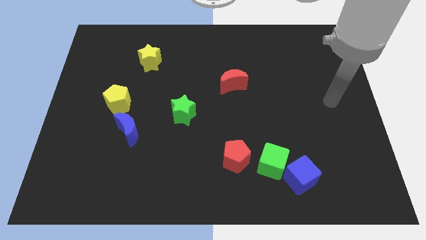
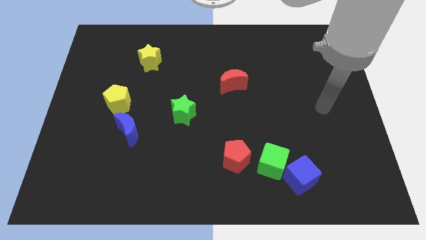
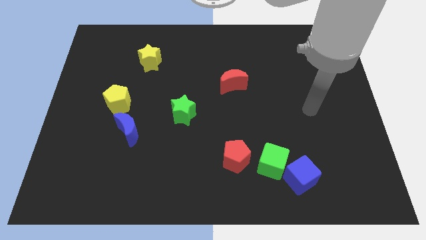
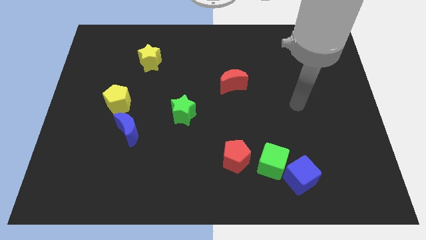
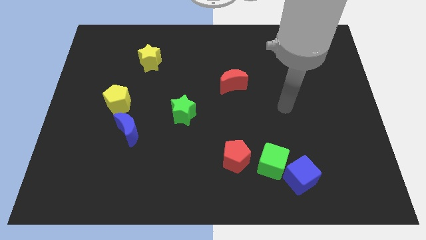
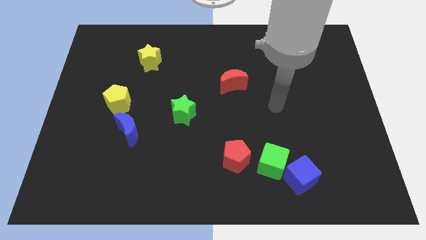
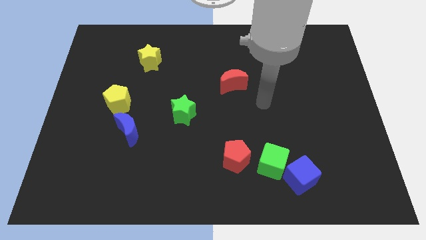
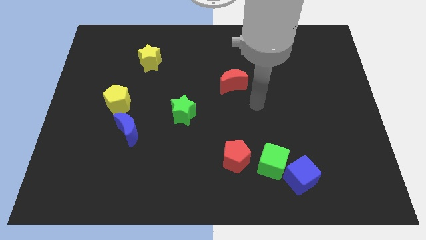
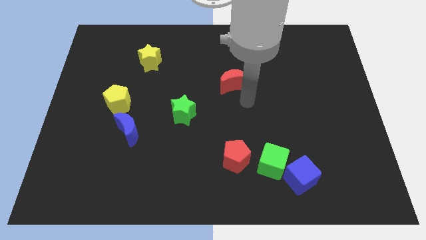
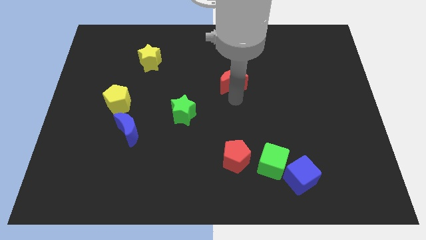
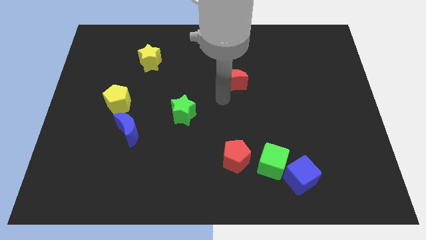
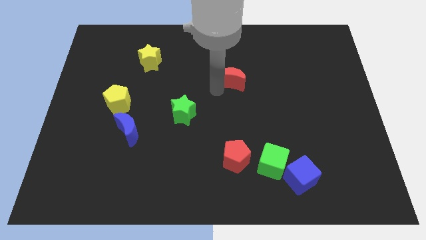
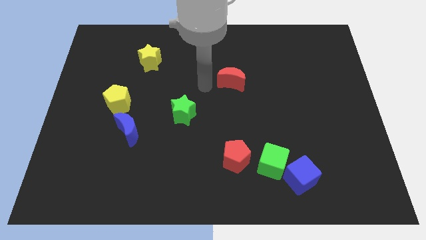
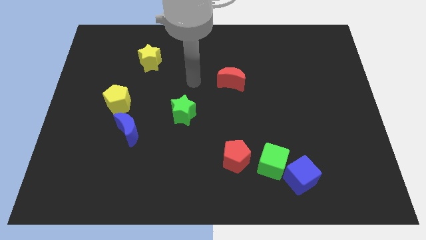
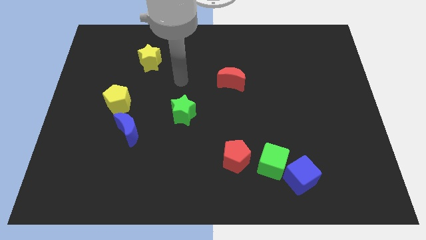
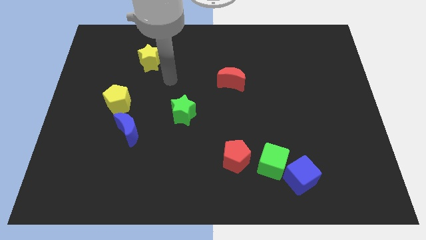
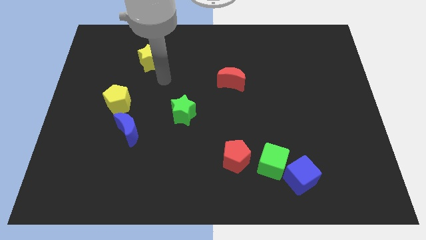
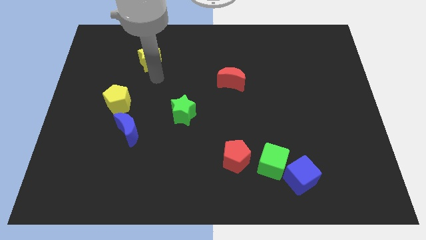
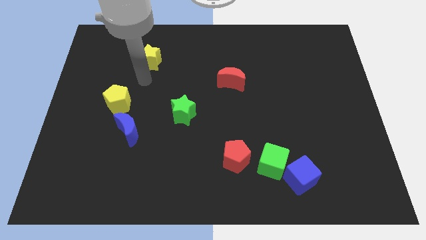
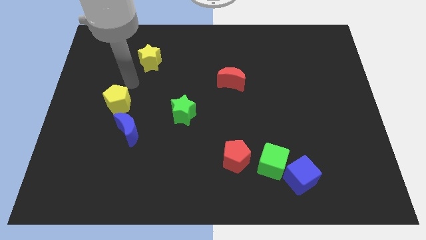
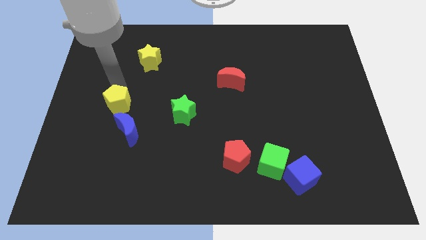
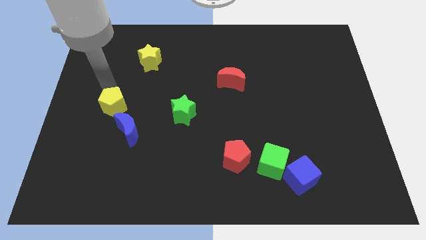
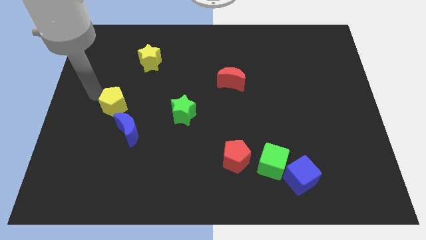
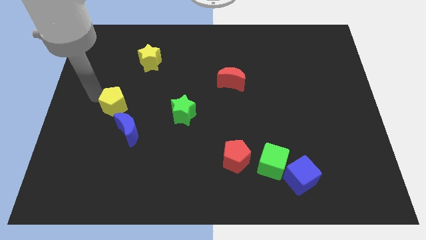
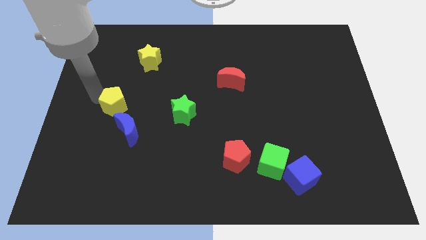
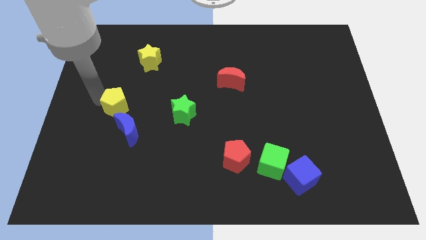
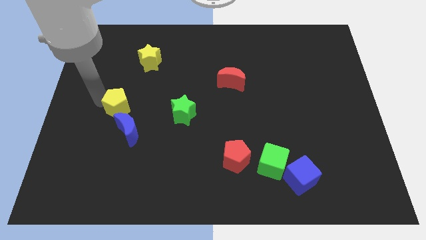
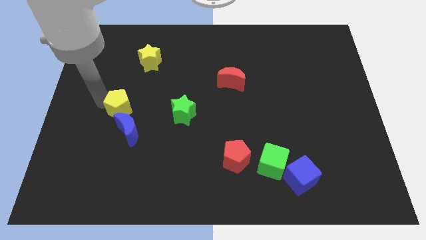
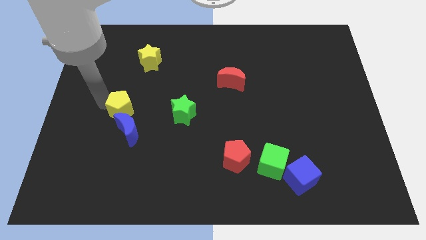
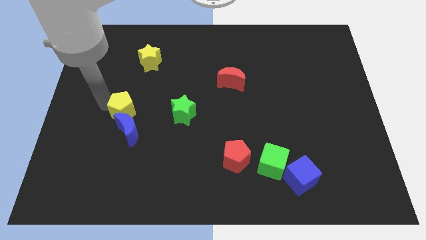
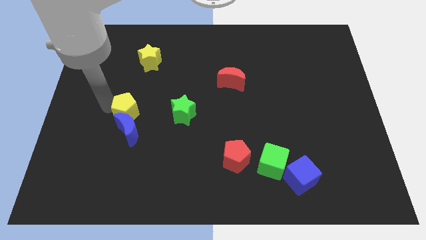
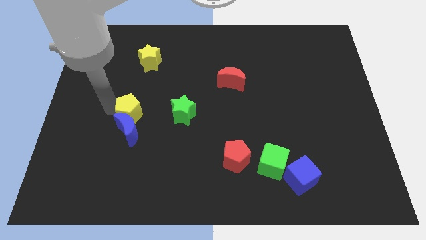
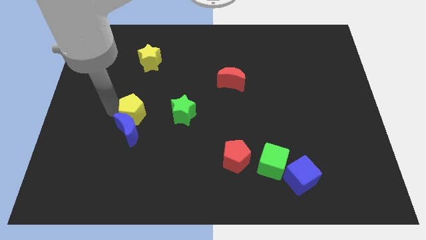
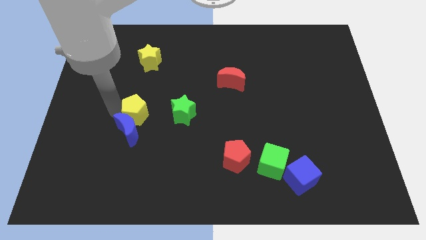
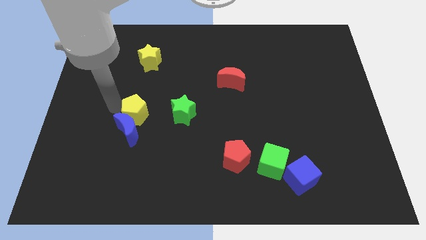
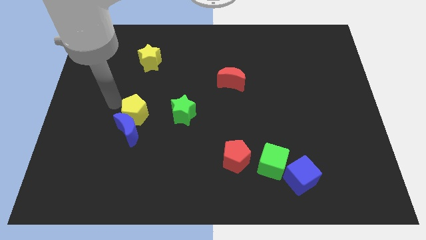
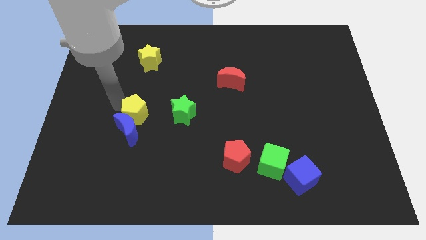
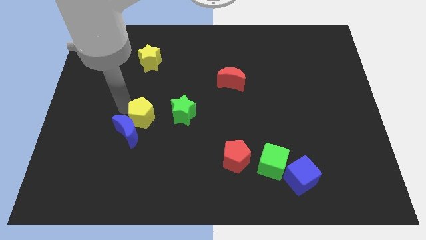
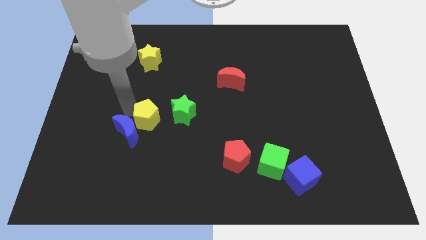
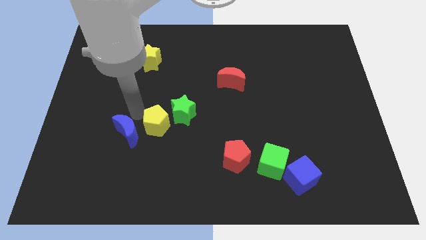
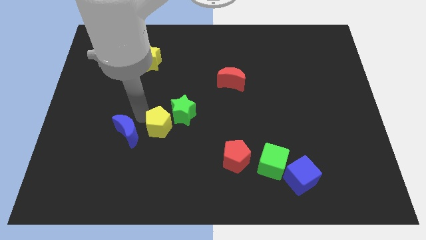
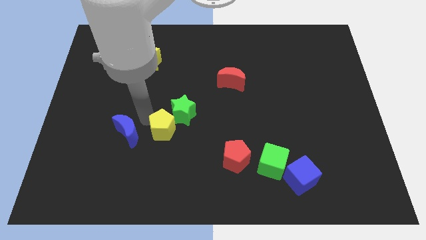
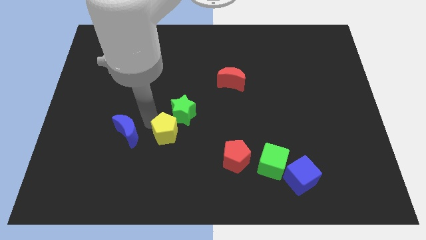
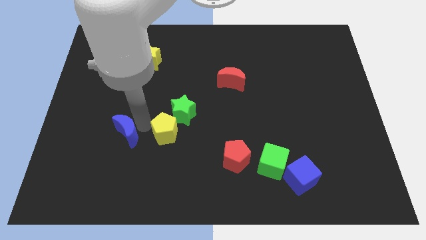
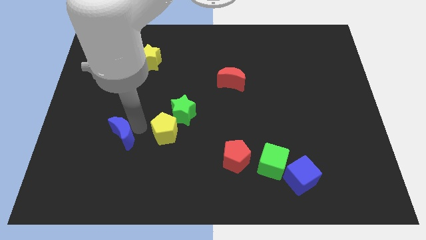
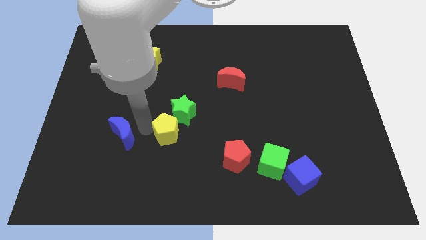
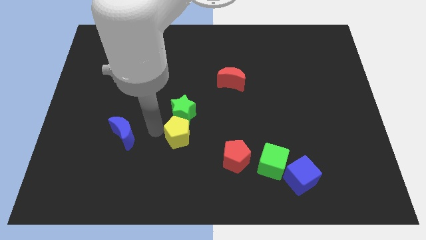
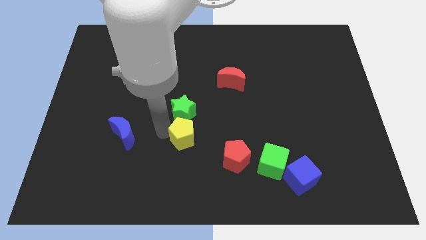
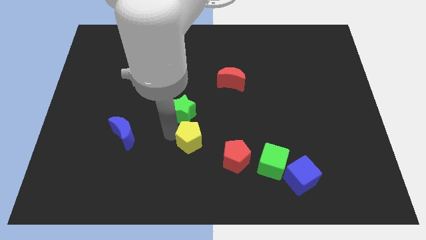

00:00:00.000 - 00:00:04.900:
slide the yellow pentagon to the top left of the red pentagon

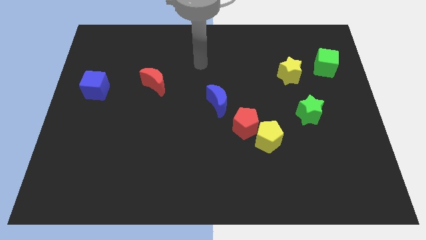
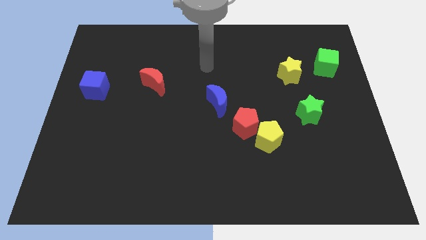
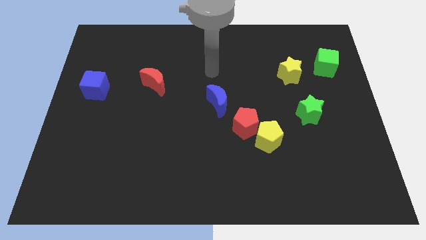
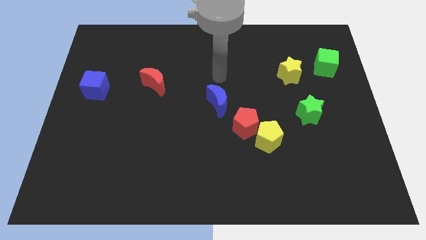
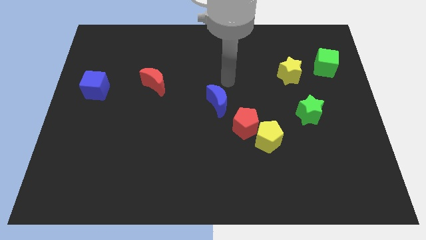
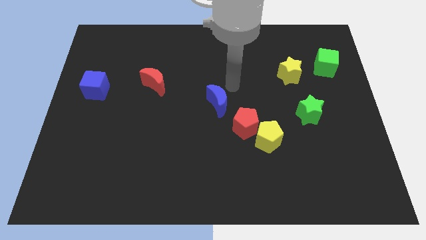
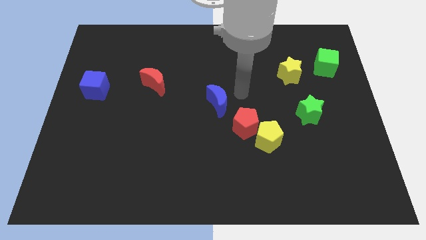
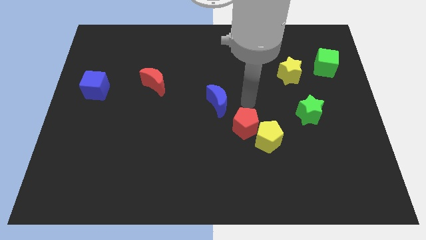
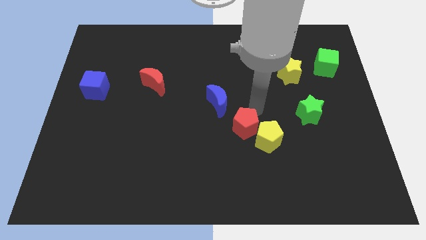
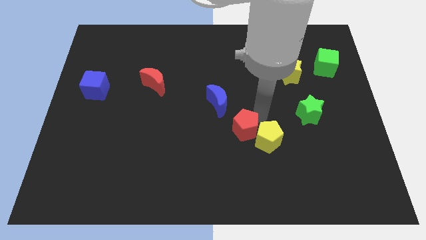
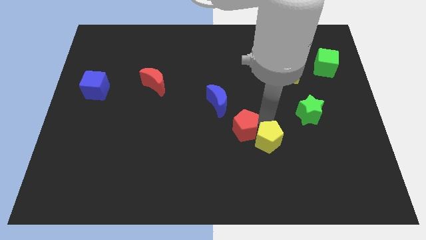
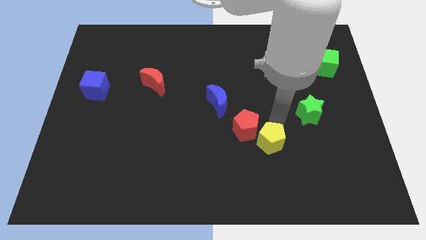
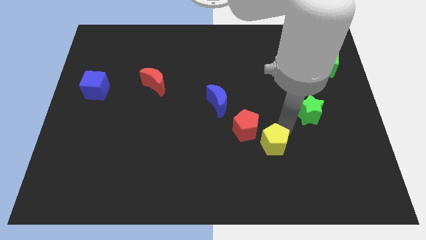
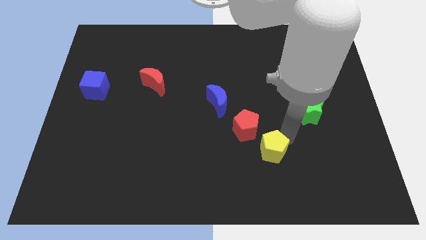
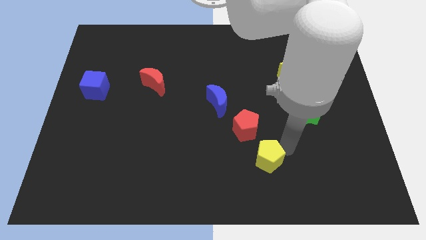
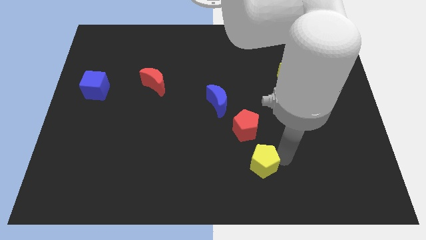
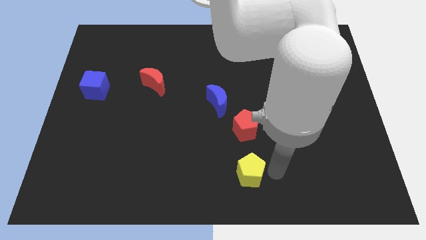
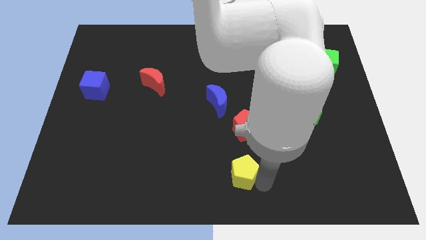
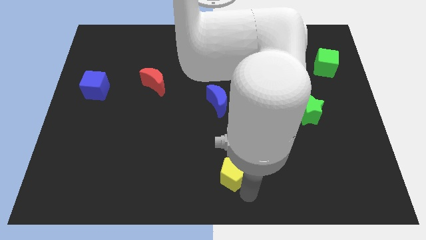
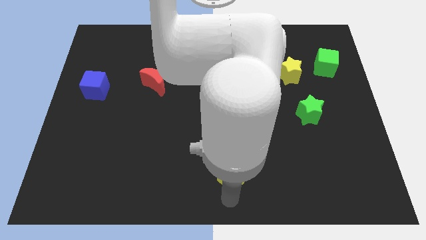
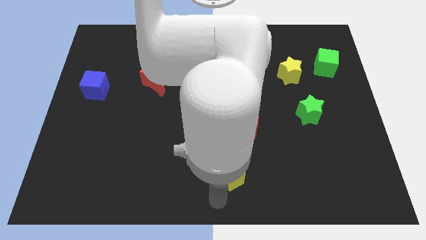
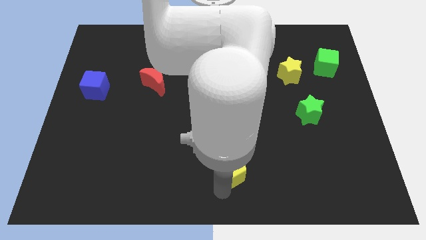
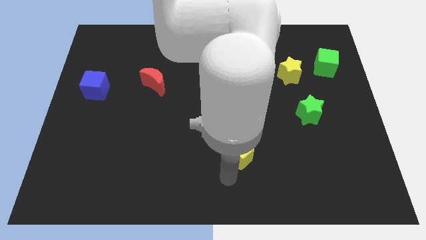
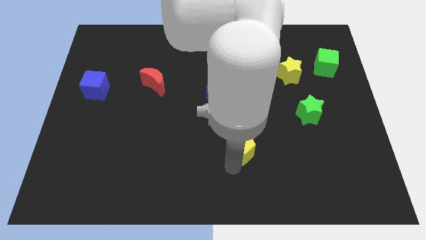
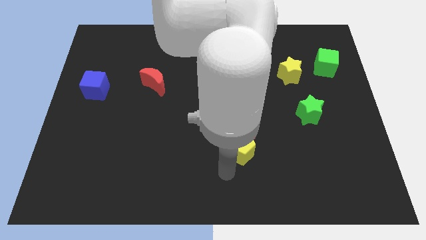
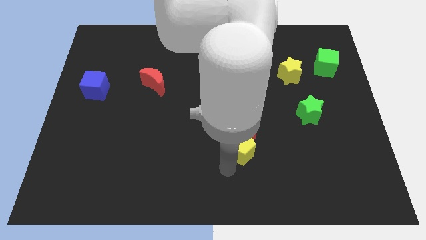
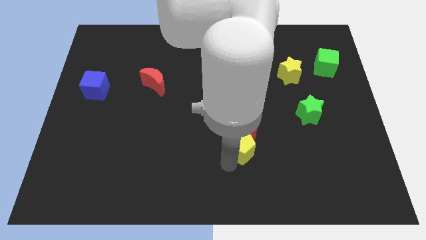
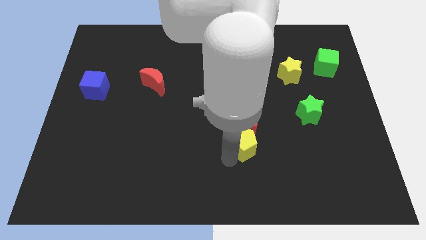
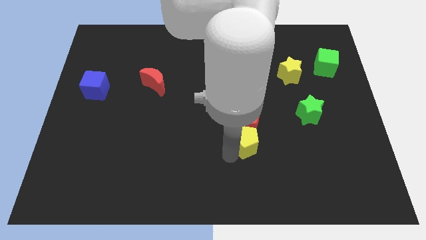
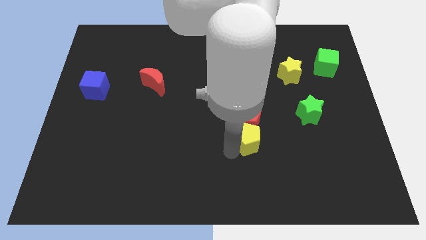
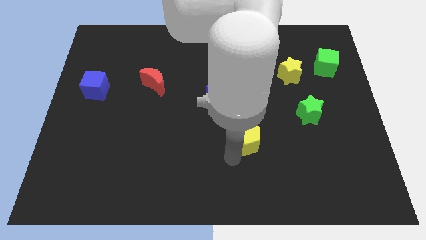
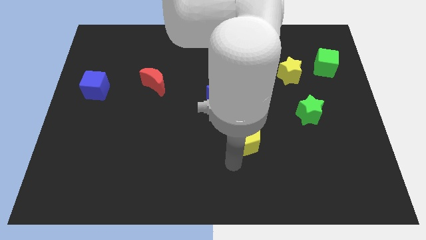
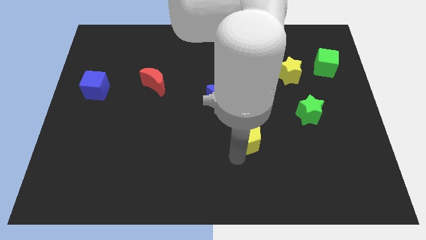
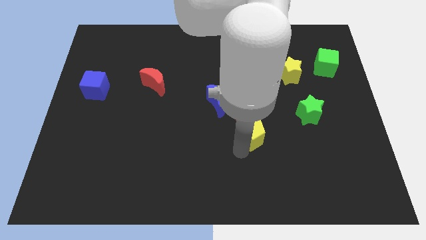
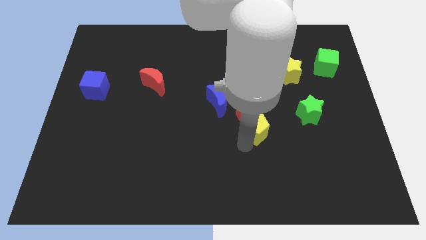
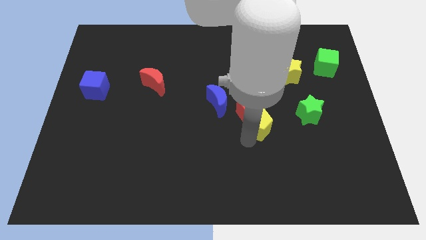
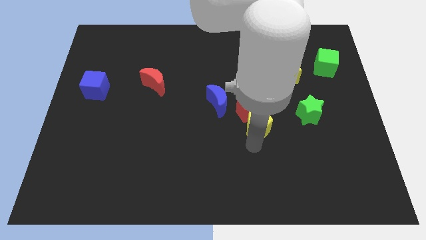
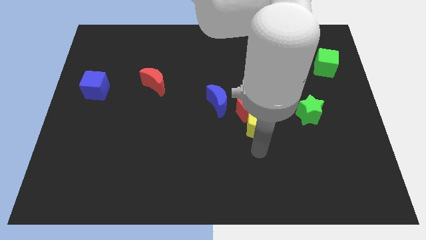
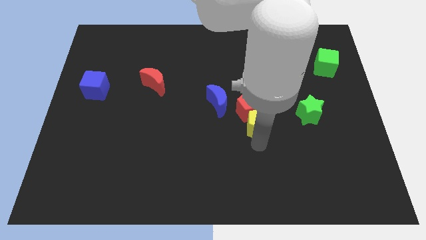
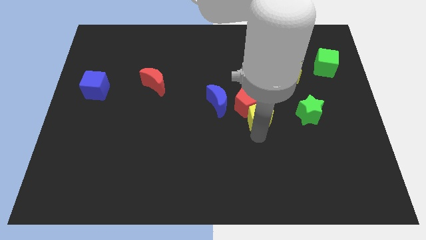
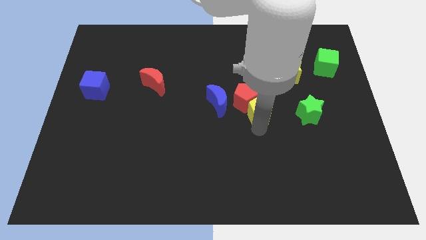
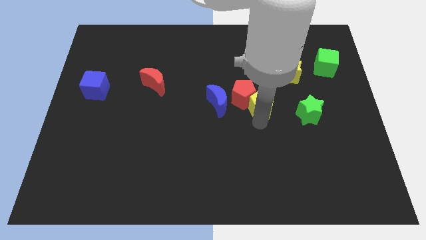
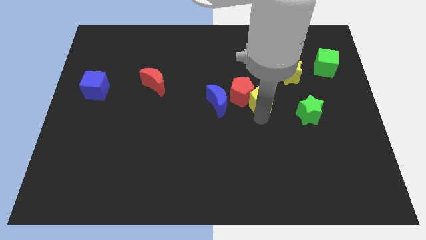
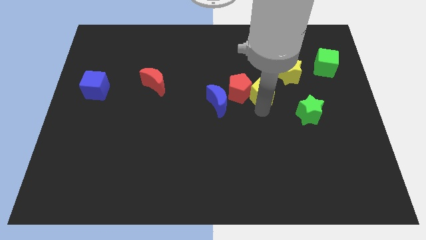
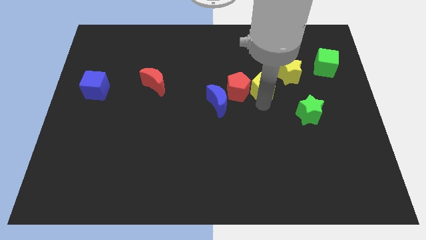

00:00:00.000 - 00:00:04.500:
move the yellow pentagon left of the yellow star
